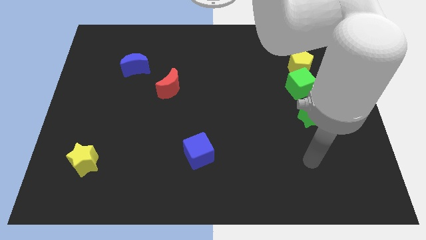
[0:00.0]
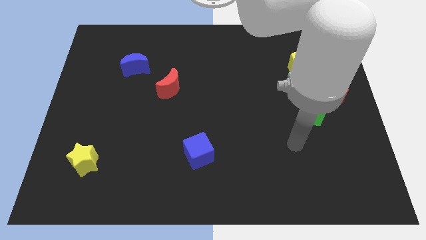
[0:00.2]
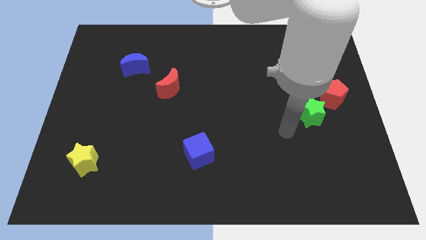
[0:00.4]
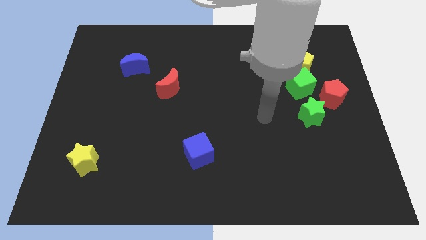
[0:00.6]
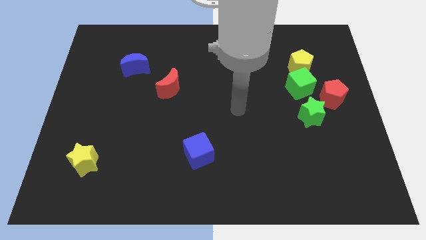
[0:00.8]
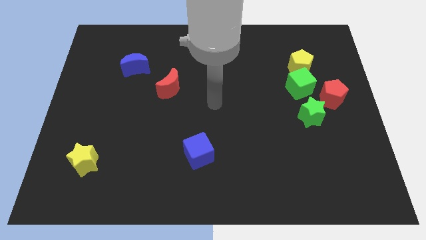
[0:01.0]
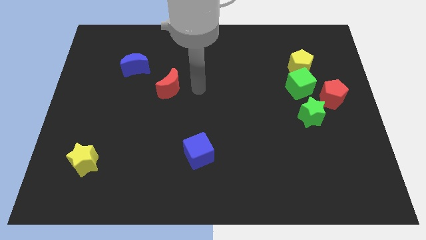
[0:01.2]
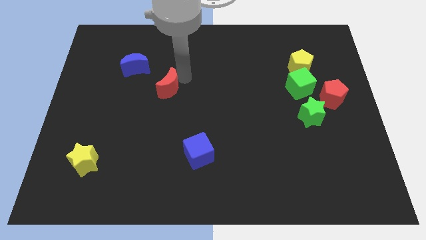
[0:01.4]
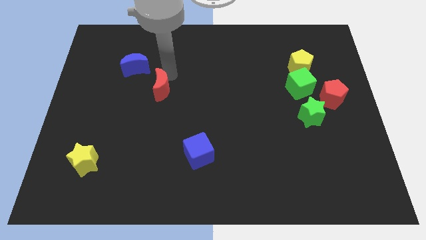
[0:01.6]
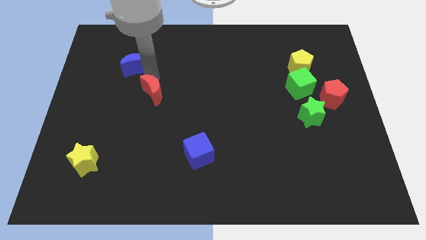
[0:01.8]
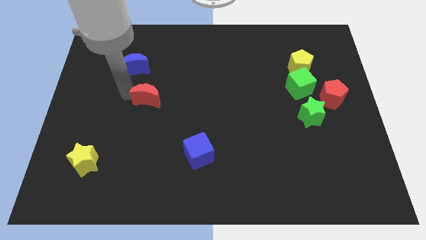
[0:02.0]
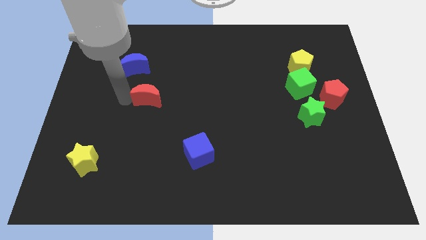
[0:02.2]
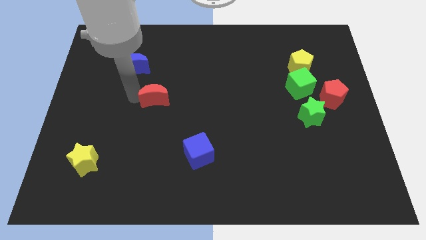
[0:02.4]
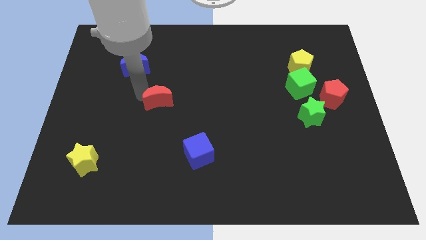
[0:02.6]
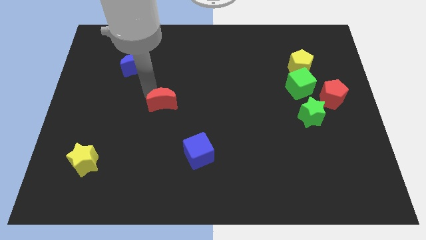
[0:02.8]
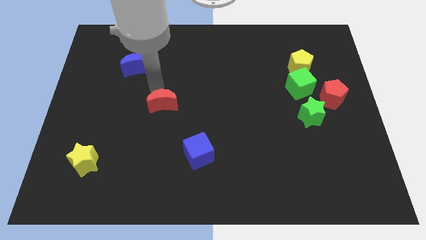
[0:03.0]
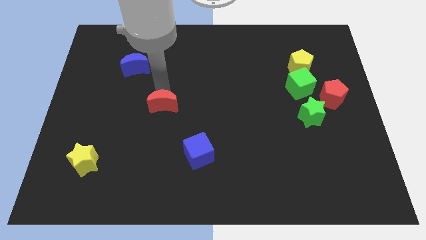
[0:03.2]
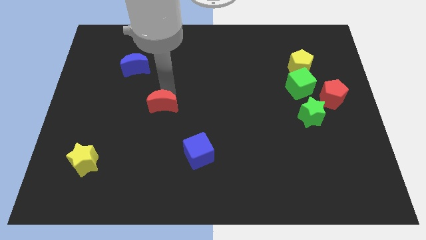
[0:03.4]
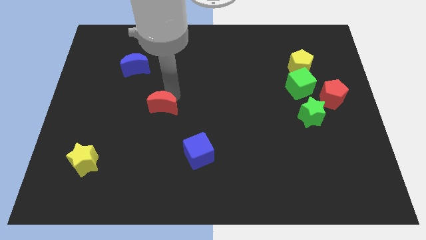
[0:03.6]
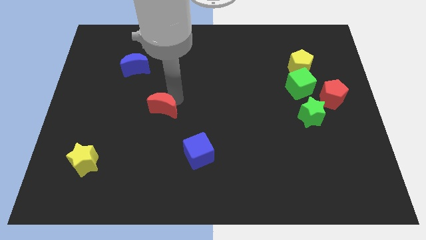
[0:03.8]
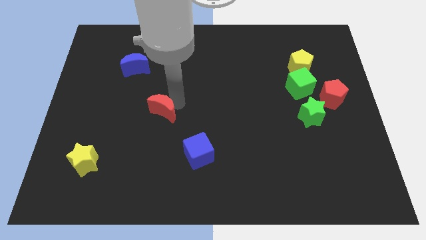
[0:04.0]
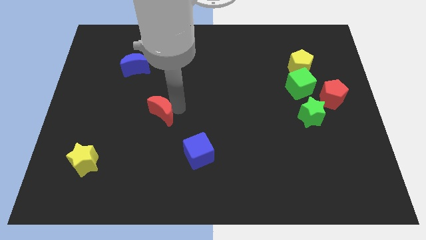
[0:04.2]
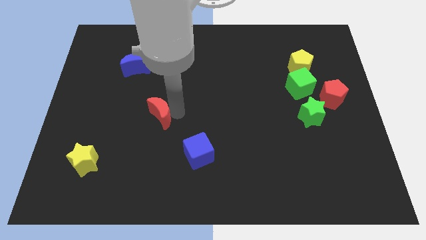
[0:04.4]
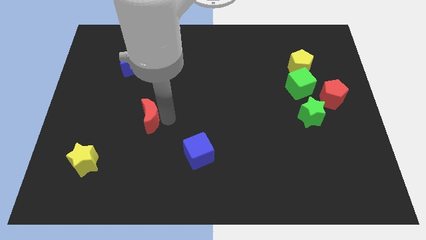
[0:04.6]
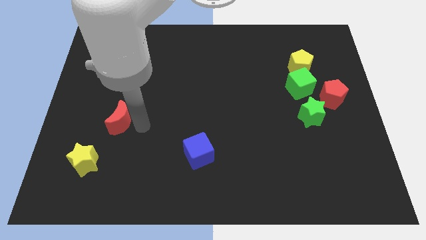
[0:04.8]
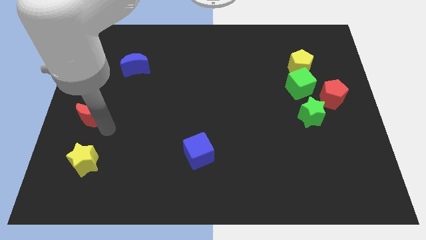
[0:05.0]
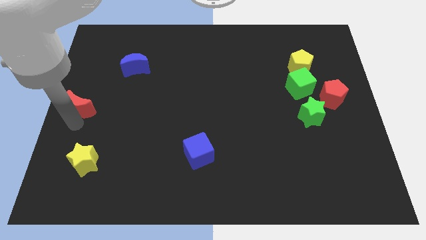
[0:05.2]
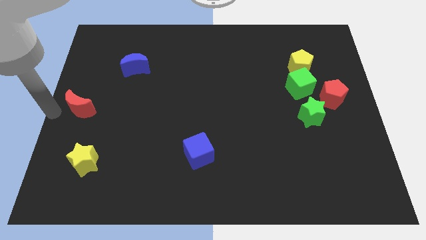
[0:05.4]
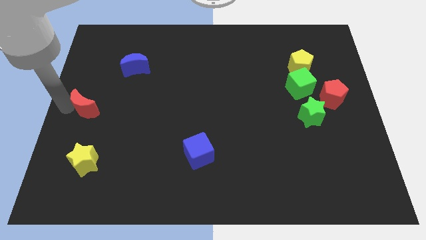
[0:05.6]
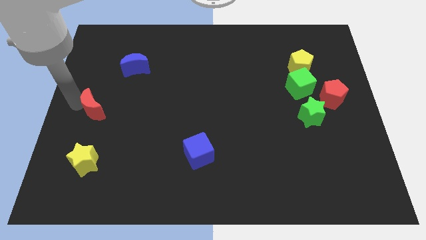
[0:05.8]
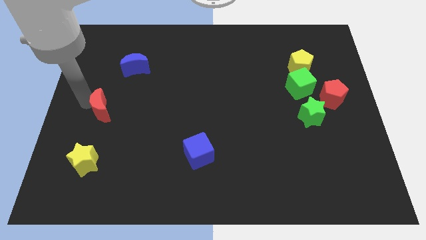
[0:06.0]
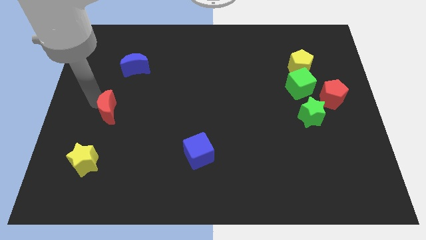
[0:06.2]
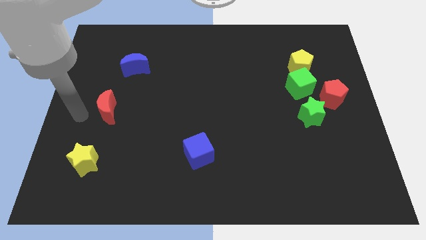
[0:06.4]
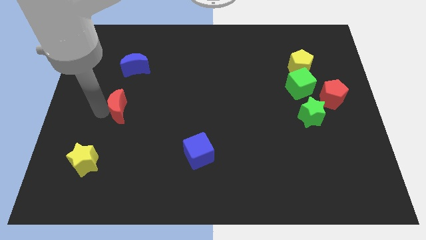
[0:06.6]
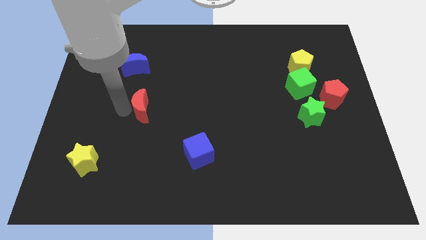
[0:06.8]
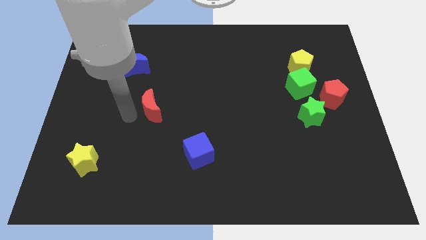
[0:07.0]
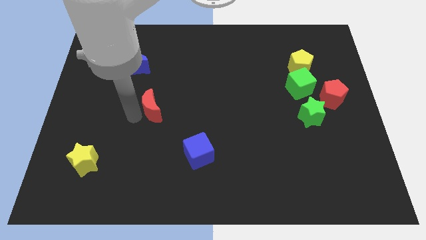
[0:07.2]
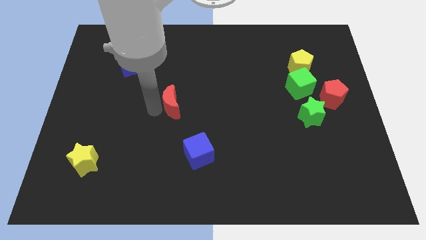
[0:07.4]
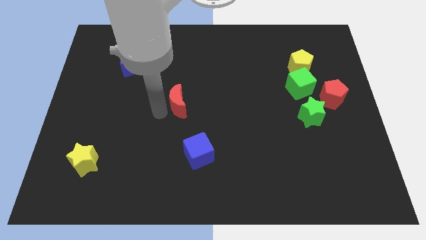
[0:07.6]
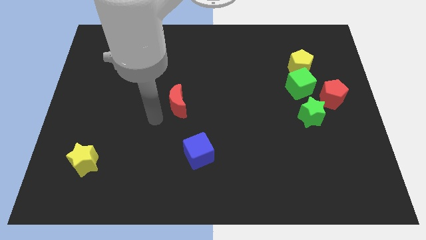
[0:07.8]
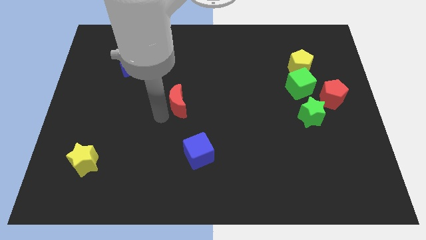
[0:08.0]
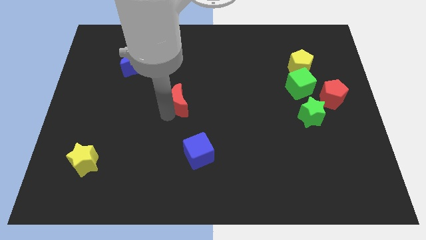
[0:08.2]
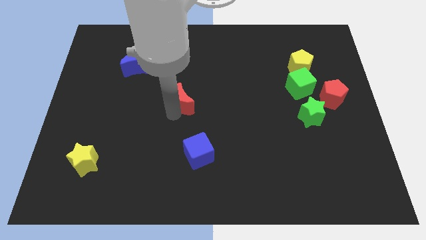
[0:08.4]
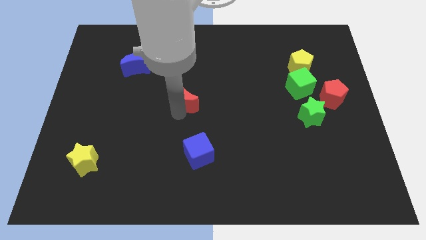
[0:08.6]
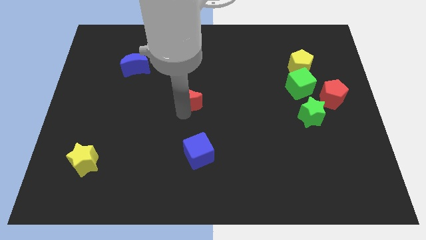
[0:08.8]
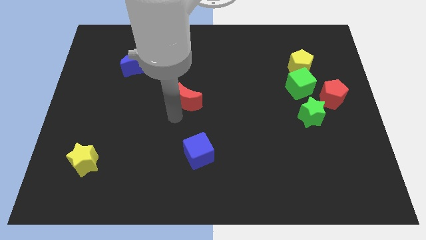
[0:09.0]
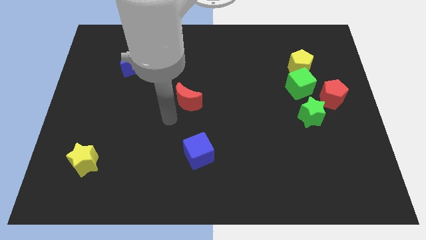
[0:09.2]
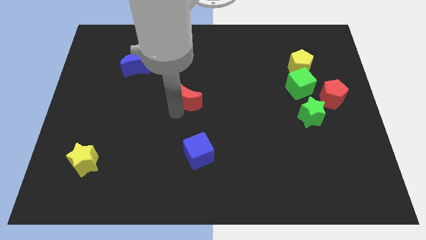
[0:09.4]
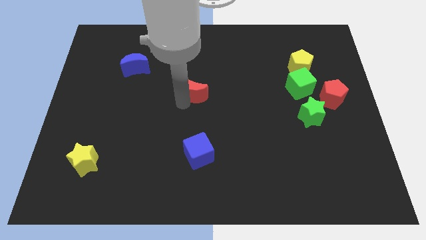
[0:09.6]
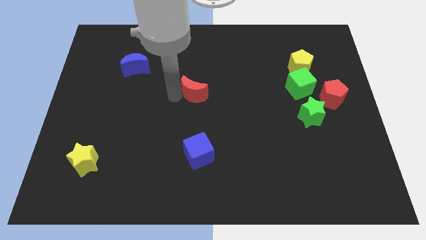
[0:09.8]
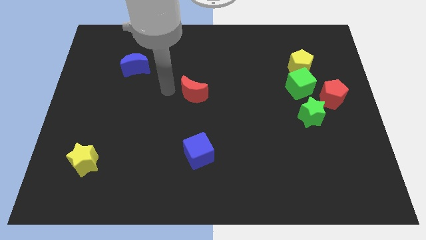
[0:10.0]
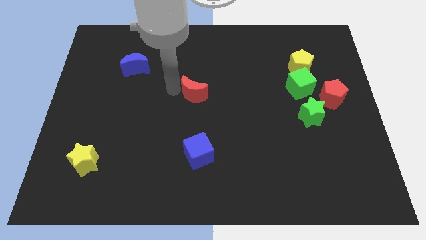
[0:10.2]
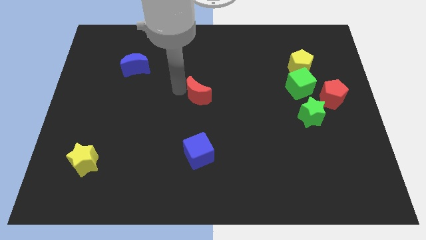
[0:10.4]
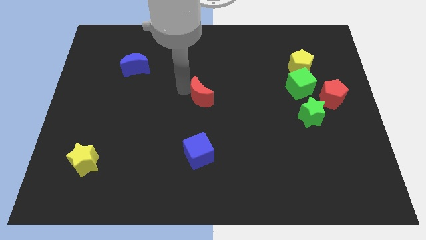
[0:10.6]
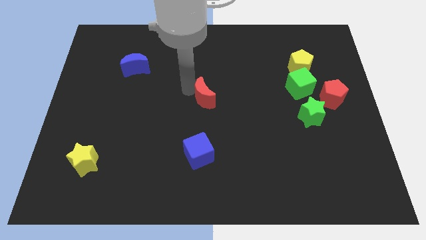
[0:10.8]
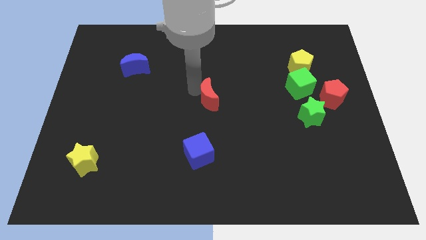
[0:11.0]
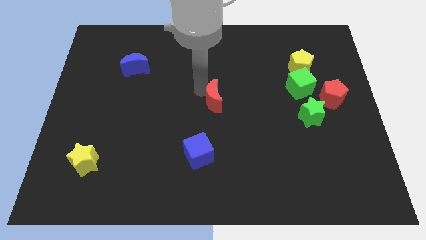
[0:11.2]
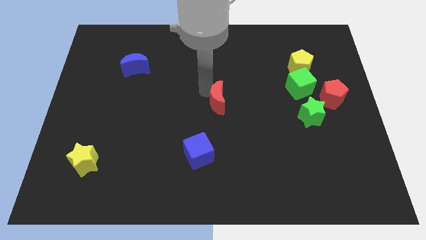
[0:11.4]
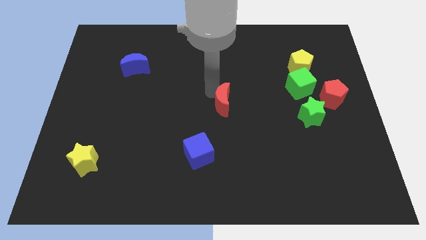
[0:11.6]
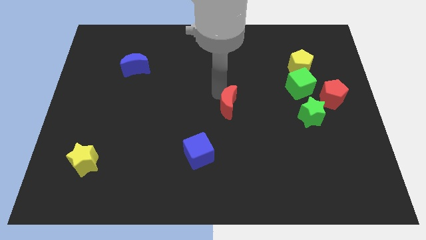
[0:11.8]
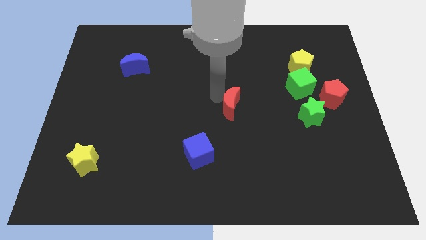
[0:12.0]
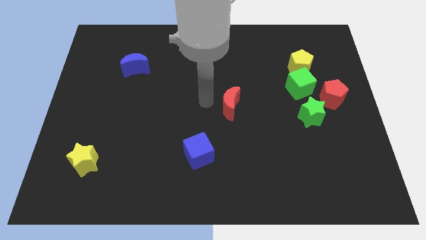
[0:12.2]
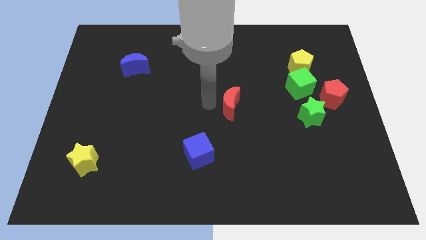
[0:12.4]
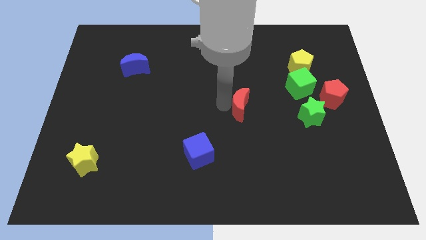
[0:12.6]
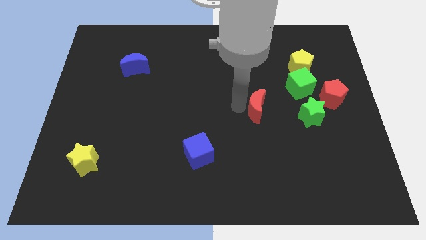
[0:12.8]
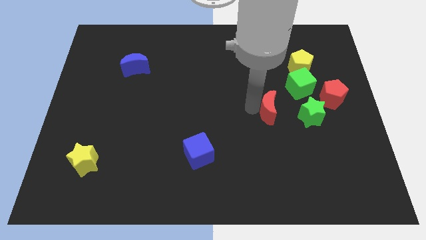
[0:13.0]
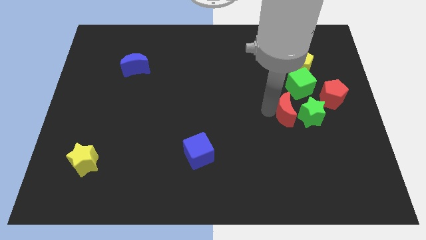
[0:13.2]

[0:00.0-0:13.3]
move the red moon to the green star

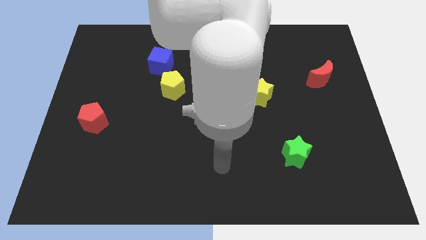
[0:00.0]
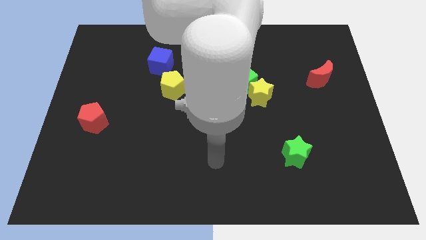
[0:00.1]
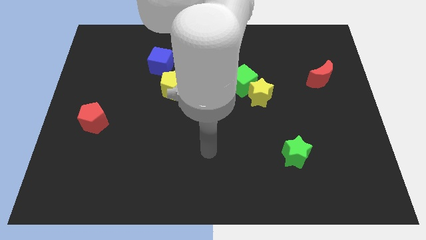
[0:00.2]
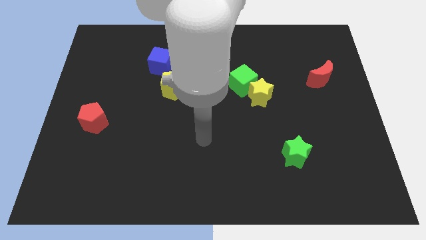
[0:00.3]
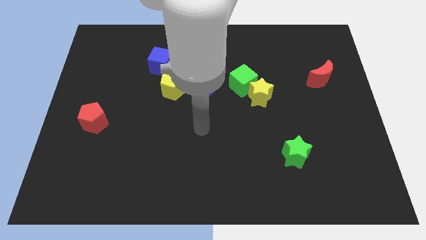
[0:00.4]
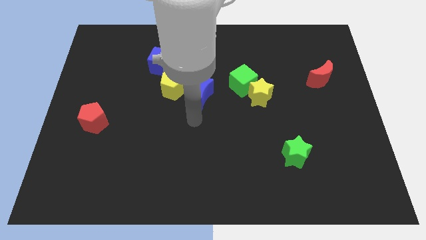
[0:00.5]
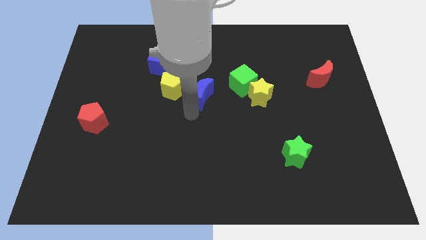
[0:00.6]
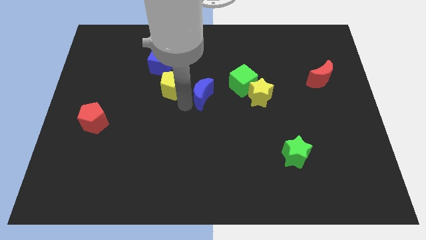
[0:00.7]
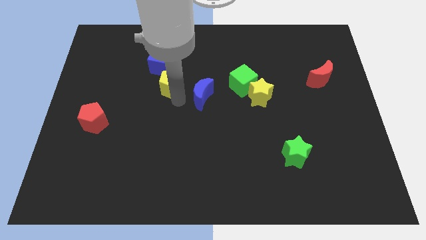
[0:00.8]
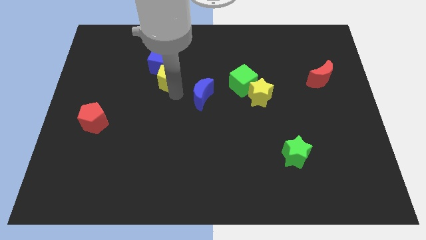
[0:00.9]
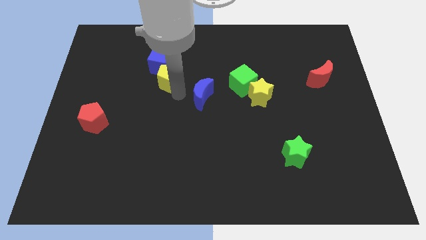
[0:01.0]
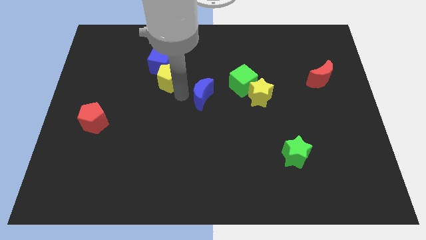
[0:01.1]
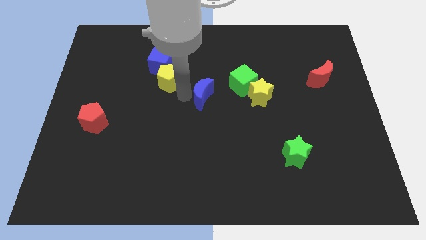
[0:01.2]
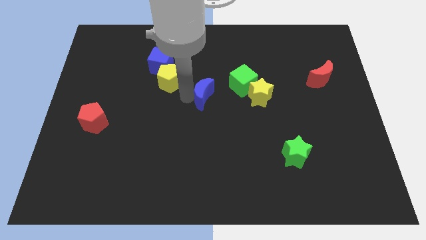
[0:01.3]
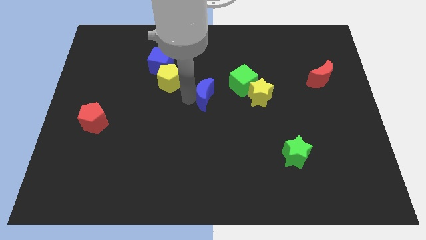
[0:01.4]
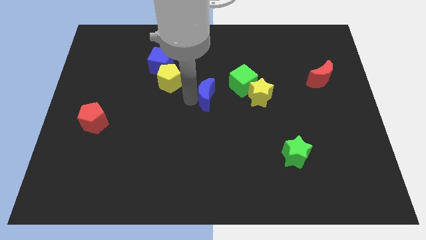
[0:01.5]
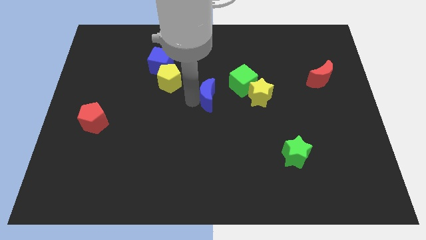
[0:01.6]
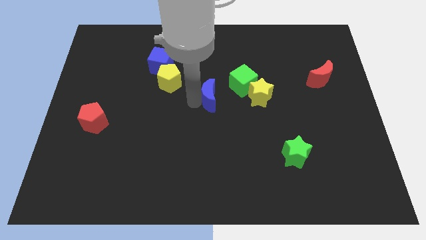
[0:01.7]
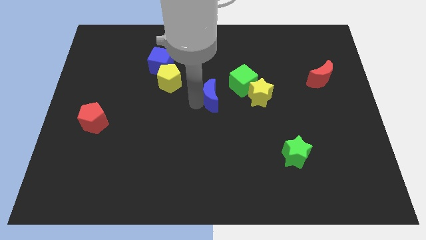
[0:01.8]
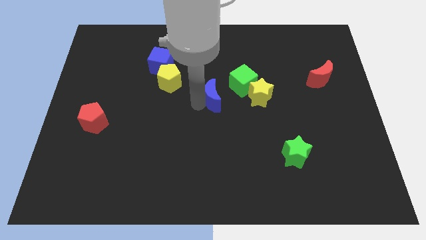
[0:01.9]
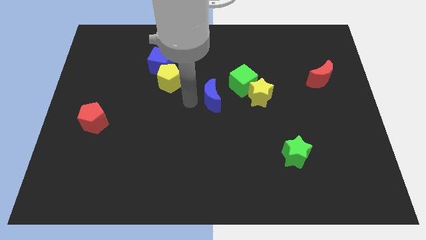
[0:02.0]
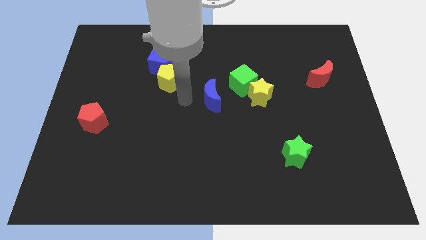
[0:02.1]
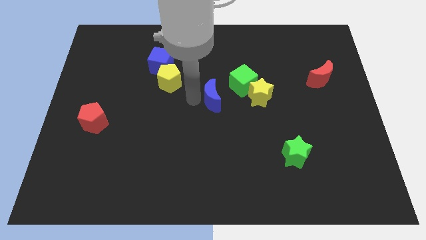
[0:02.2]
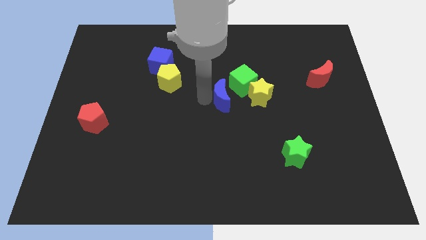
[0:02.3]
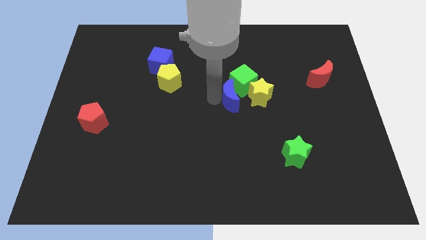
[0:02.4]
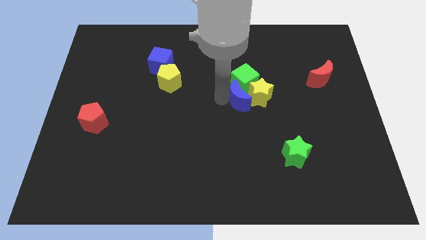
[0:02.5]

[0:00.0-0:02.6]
slide the blue moon towards the yellow star
